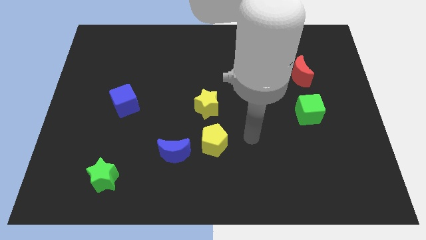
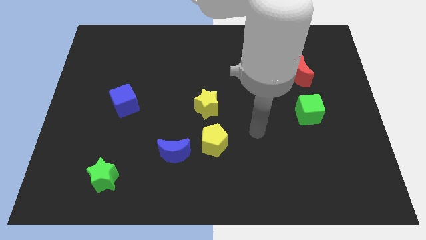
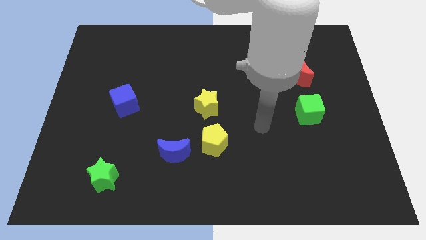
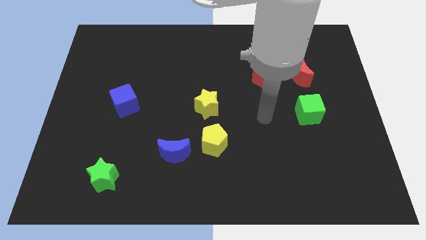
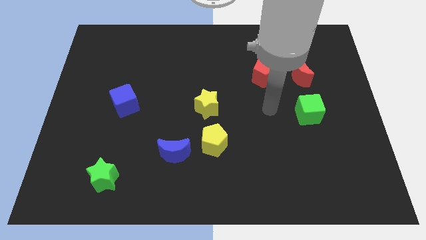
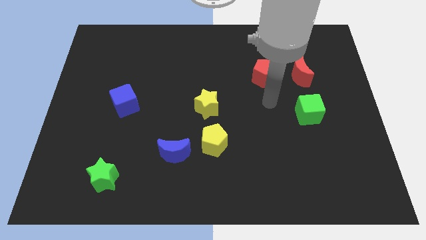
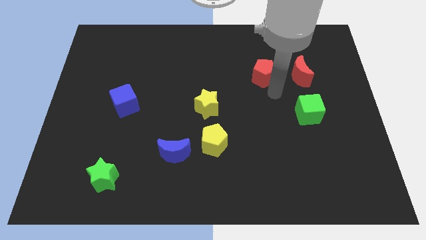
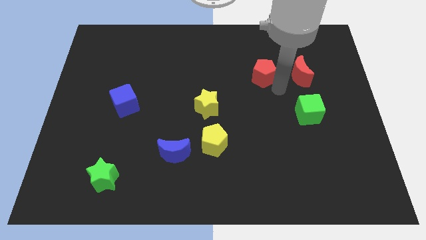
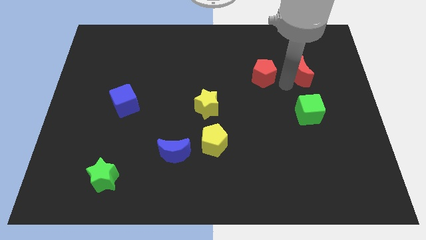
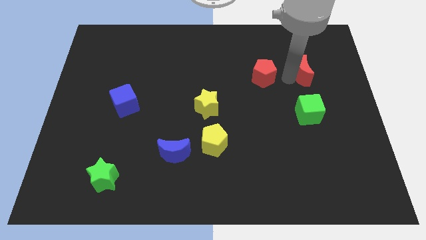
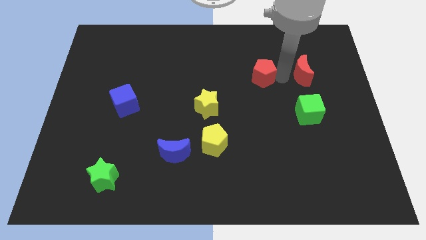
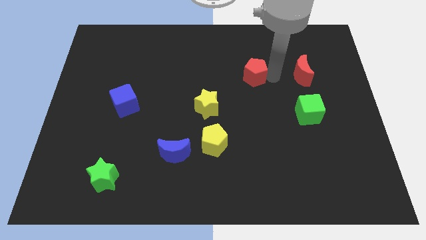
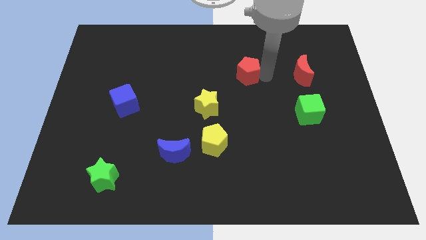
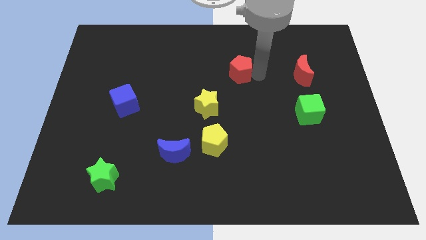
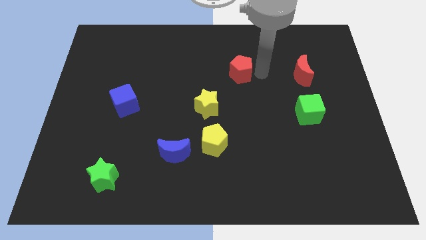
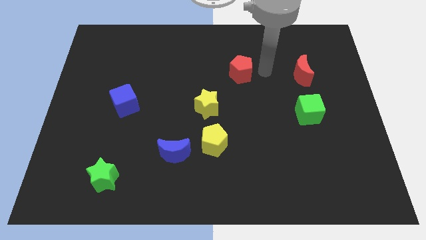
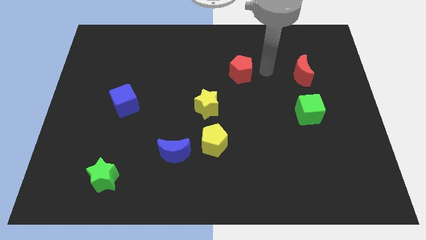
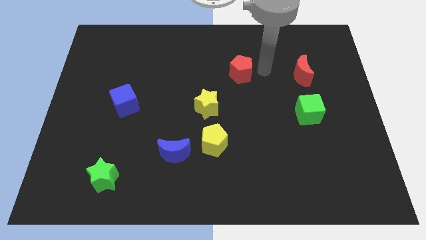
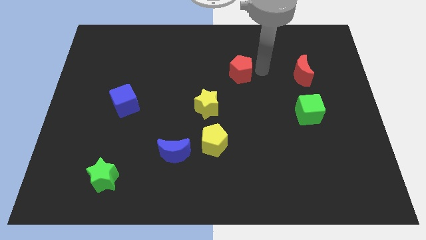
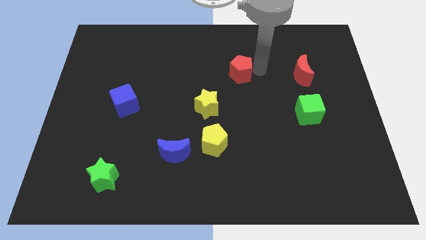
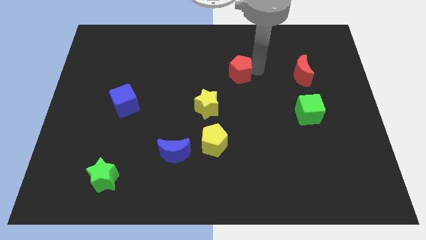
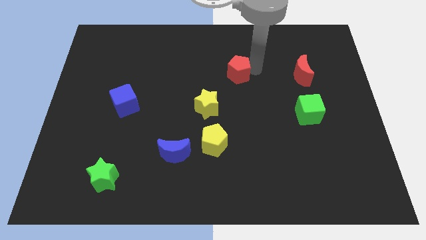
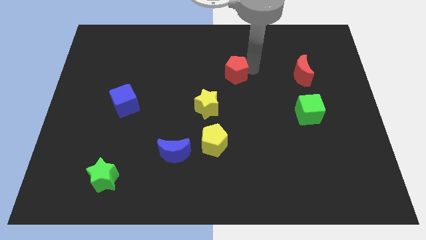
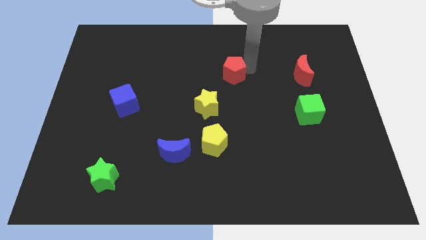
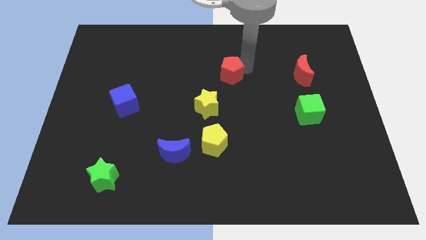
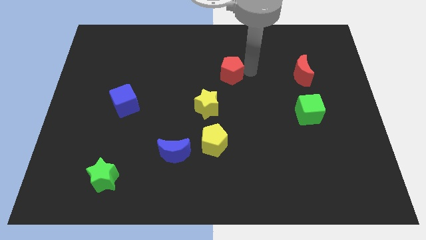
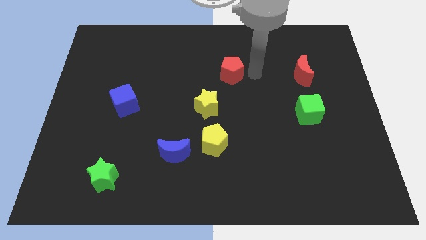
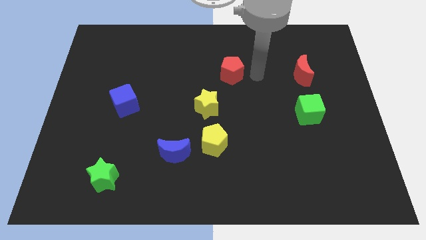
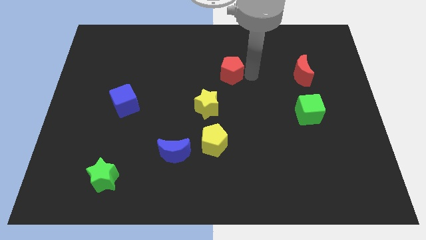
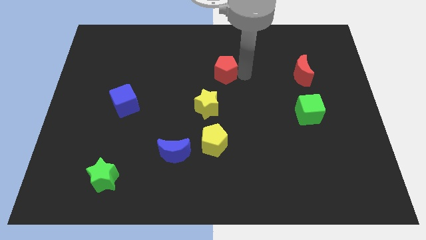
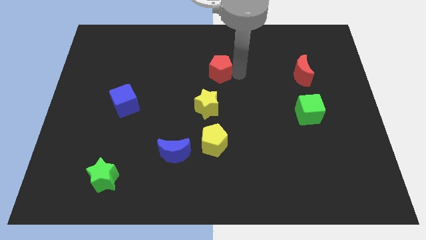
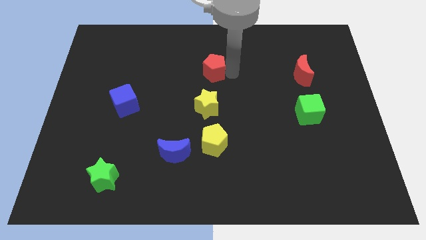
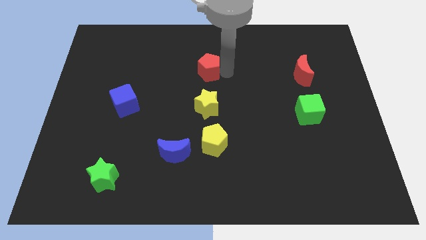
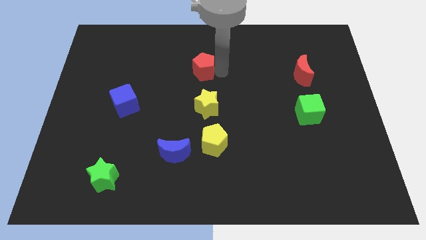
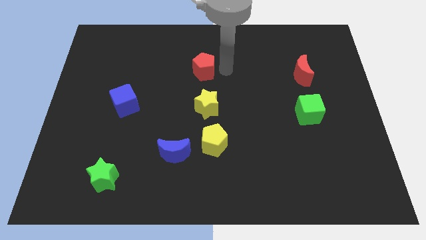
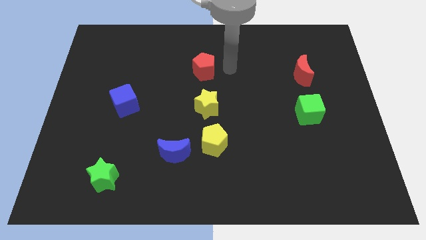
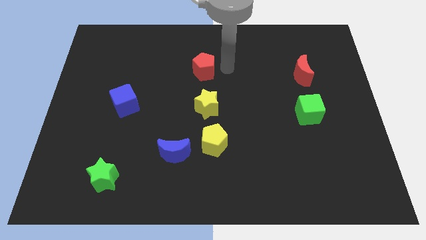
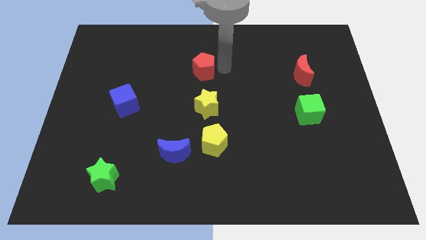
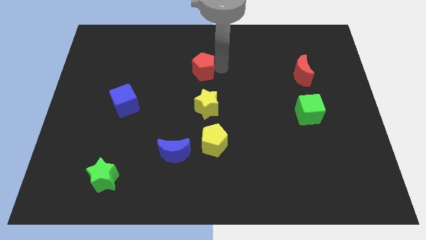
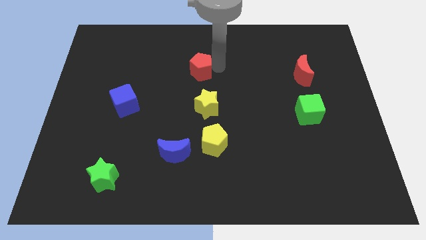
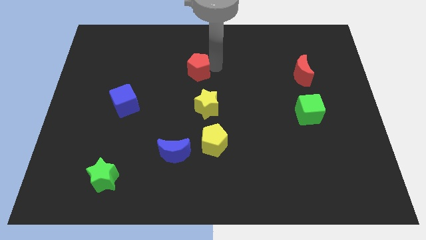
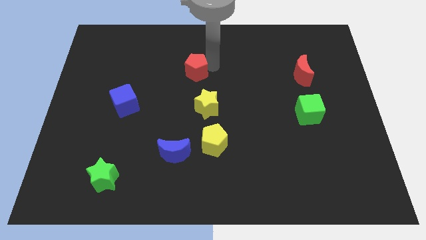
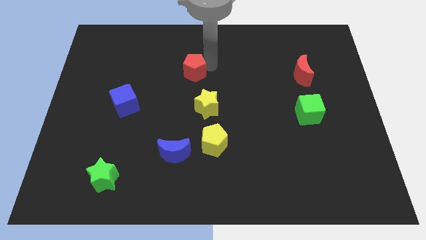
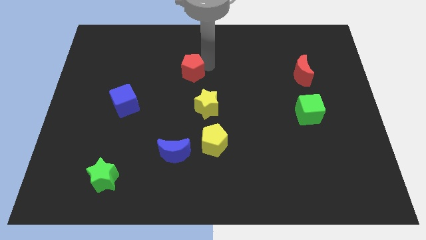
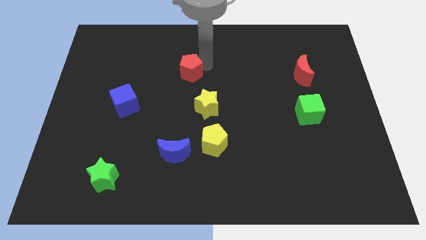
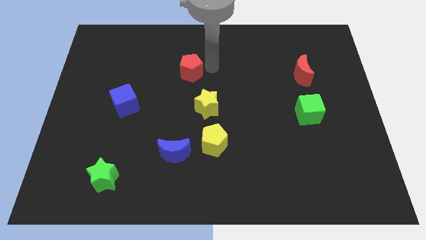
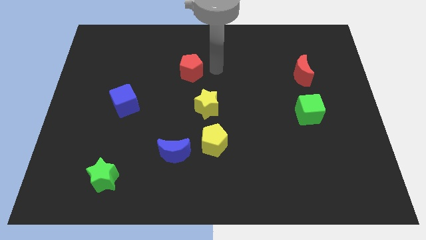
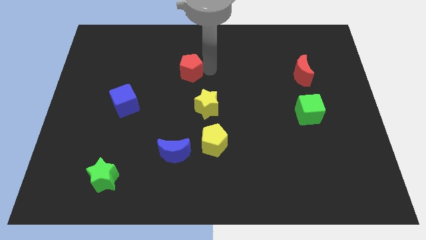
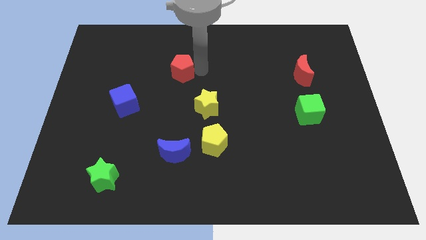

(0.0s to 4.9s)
move the red pentagon to the left

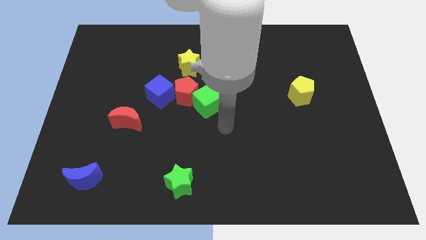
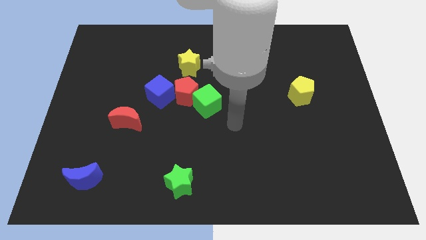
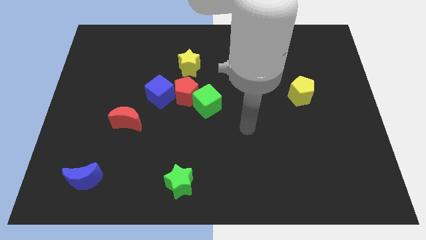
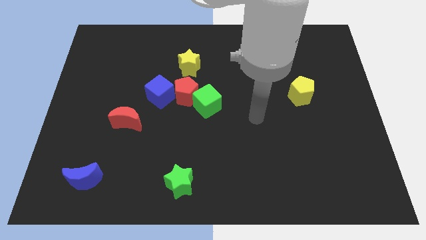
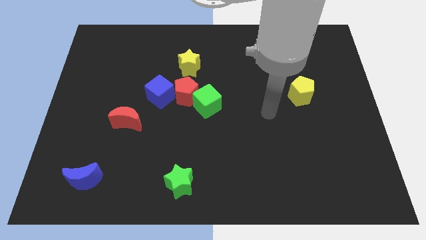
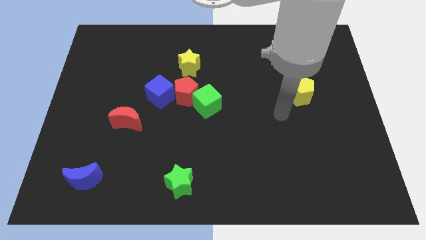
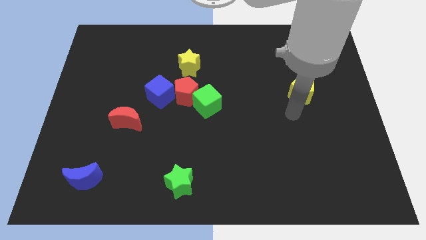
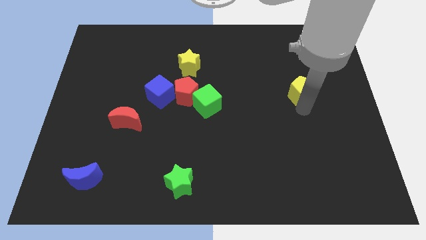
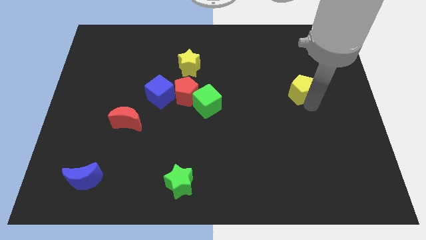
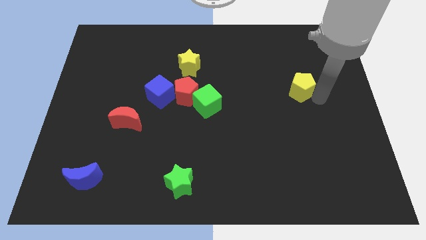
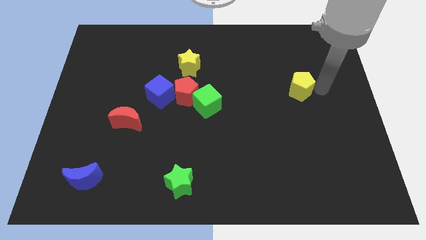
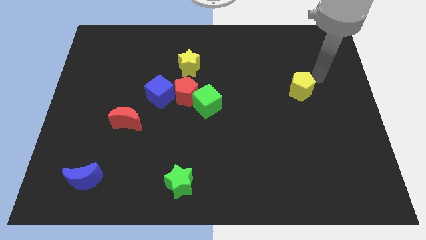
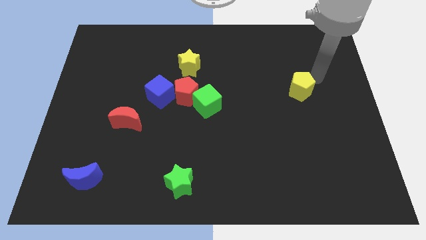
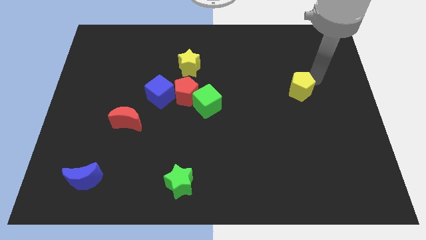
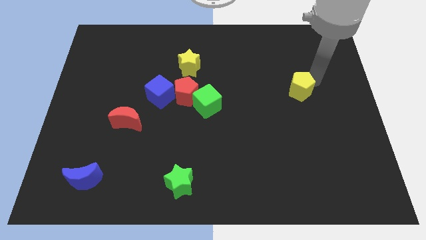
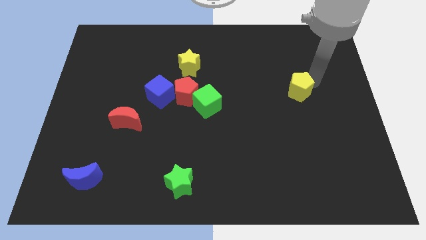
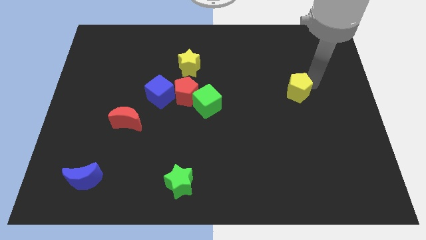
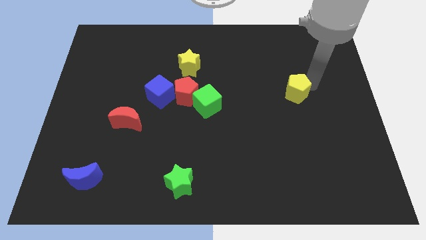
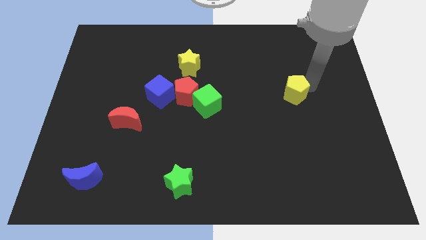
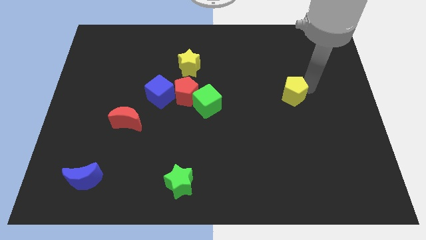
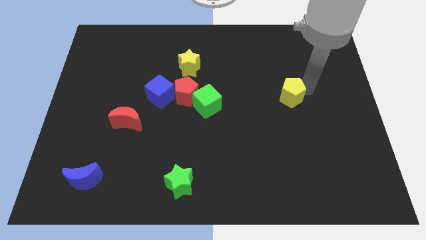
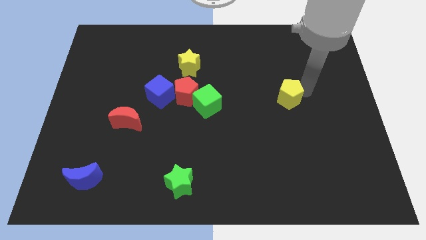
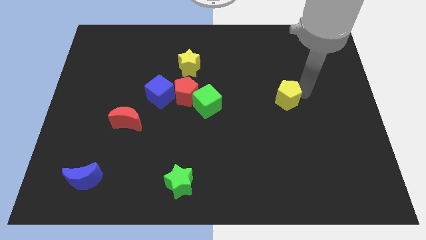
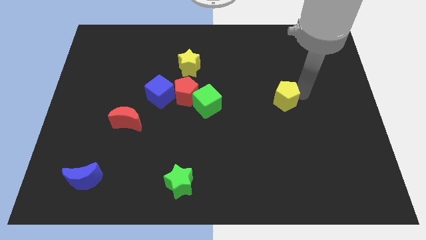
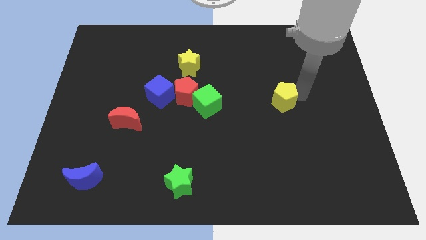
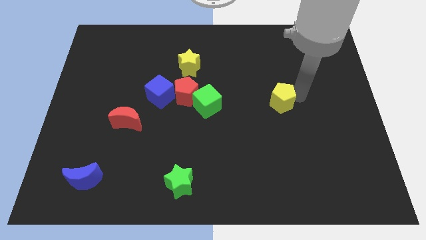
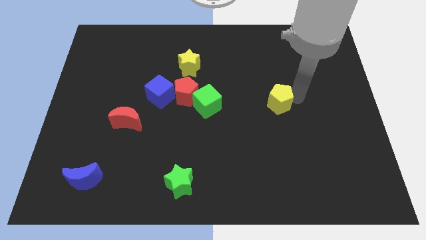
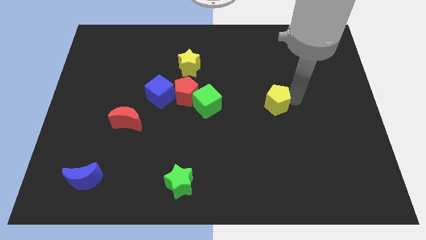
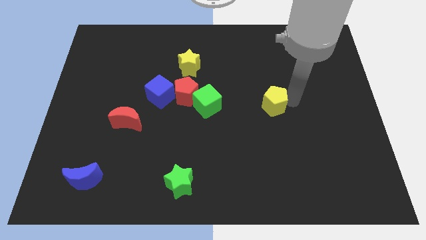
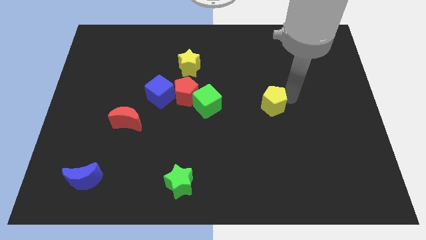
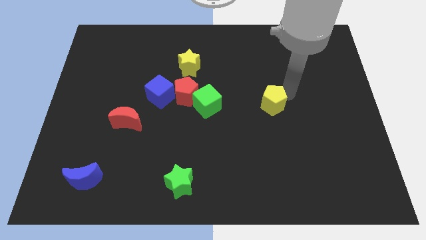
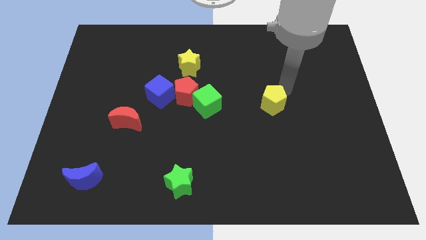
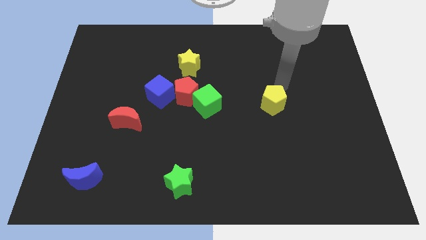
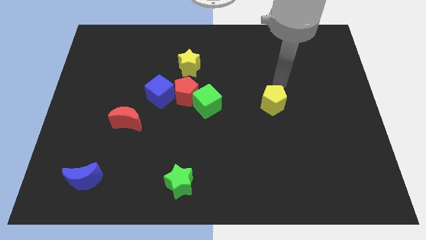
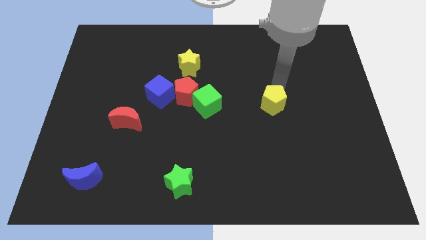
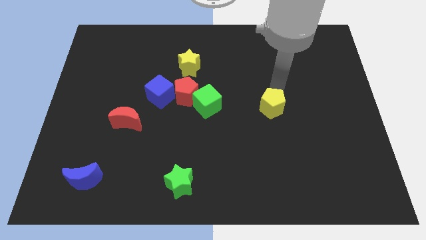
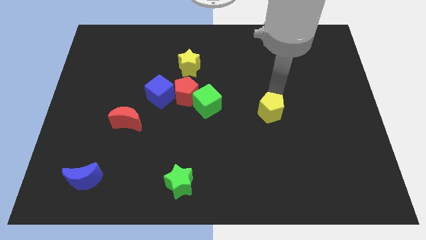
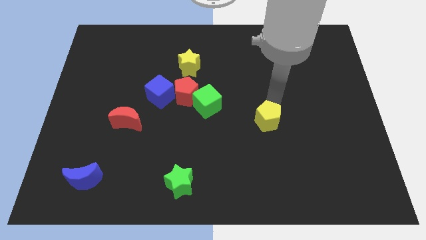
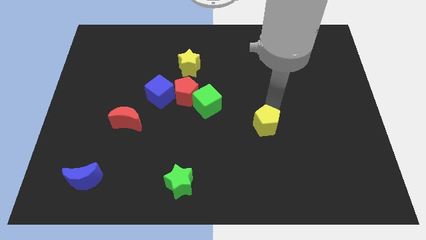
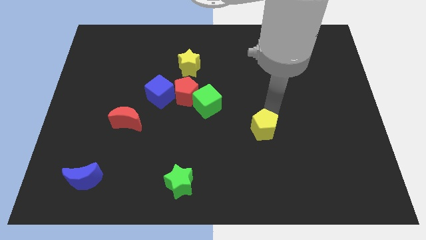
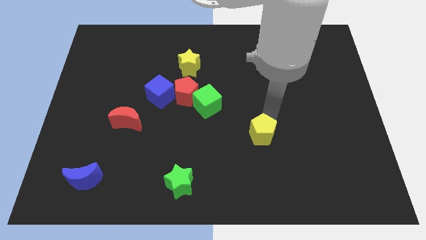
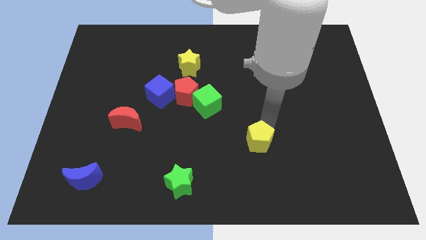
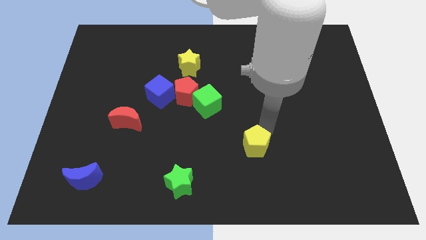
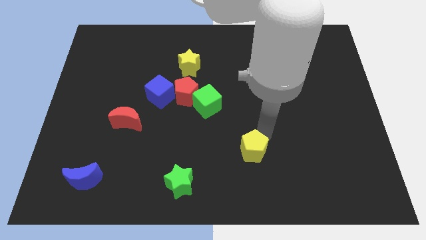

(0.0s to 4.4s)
push the yellow pentagon diagonally downwards and left
